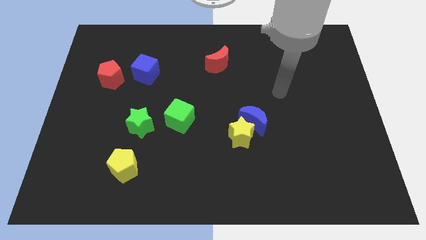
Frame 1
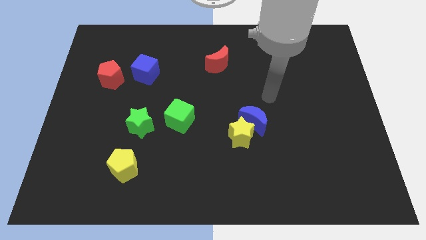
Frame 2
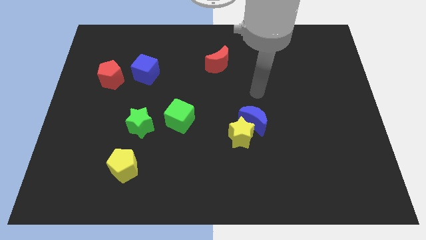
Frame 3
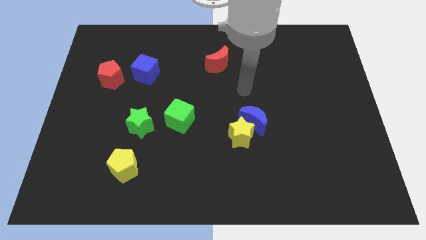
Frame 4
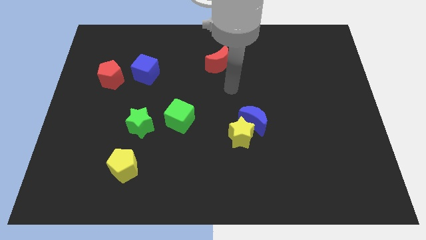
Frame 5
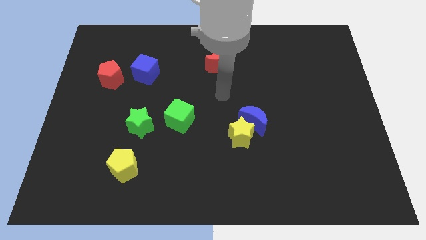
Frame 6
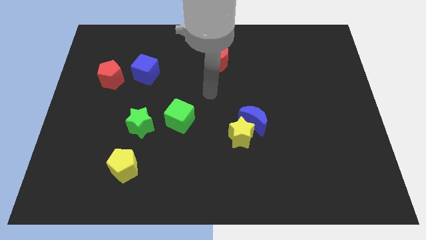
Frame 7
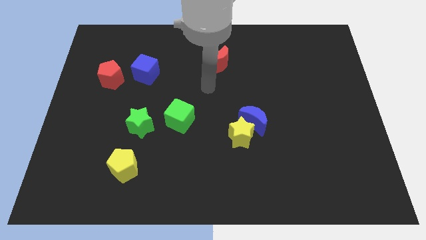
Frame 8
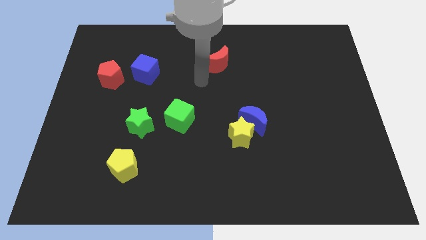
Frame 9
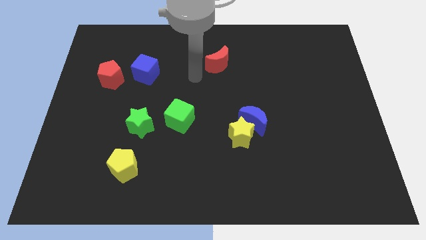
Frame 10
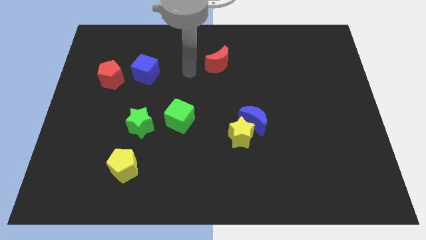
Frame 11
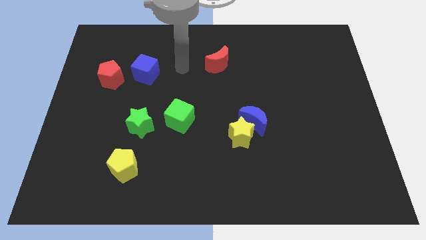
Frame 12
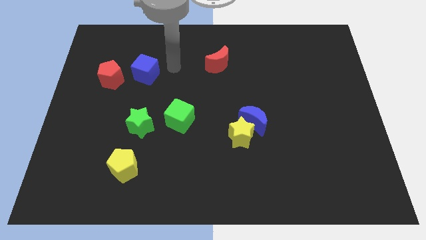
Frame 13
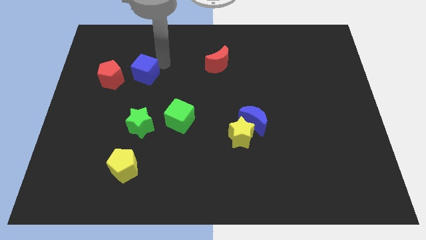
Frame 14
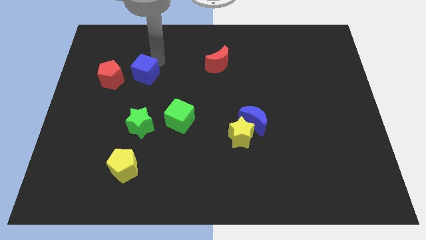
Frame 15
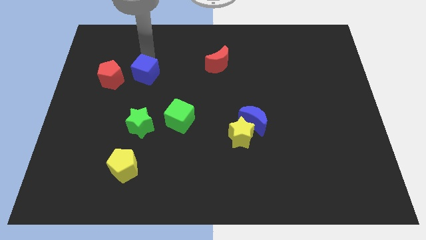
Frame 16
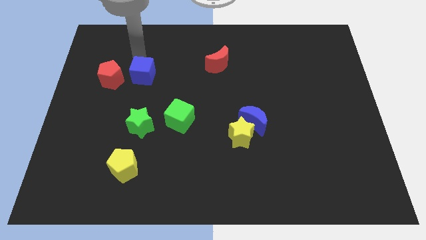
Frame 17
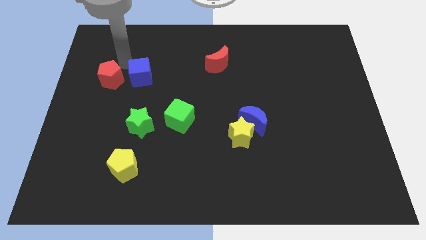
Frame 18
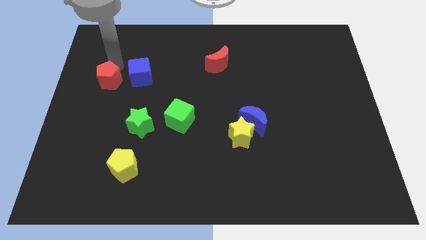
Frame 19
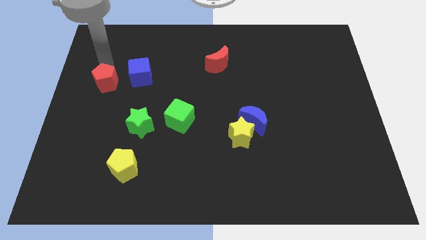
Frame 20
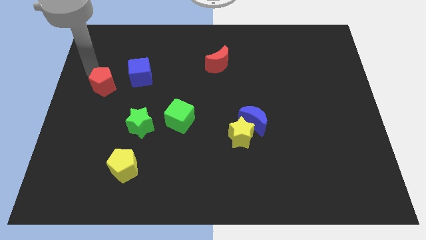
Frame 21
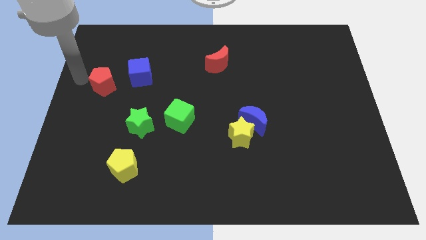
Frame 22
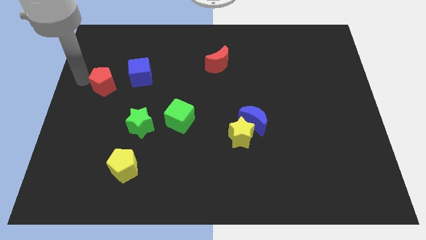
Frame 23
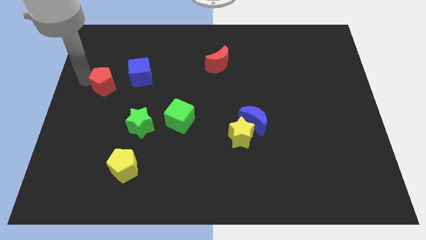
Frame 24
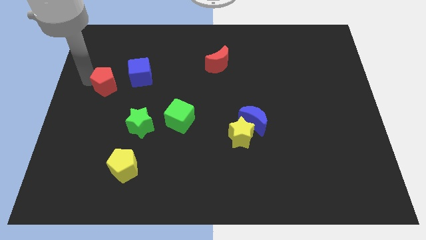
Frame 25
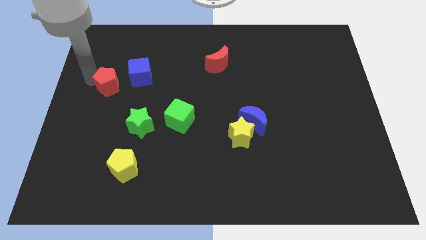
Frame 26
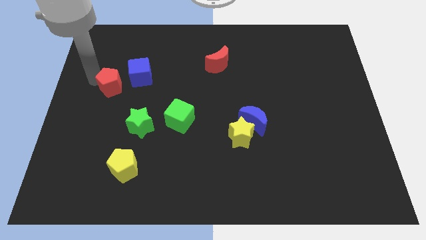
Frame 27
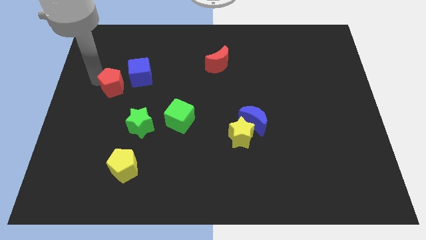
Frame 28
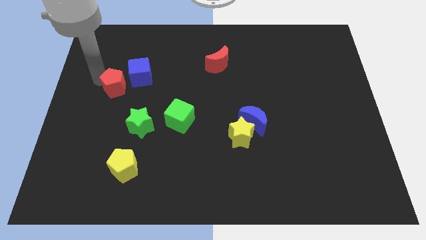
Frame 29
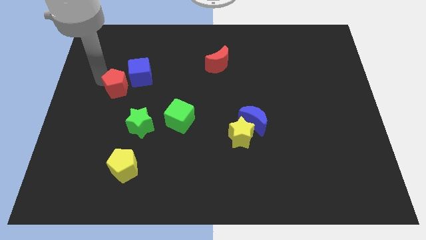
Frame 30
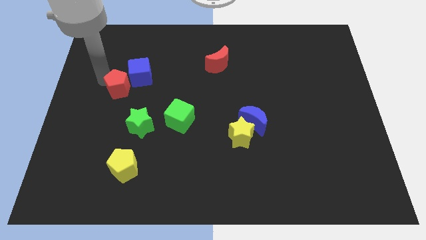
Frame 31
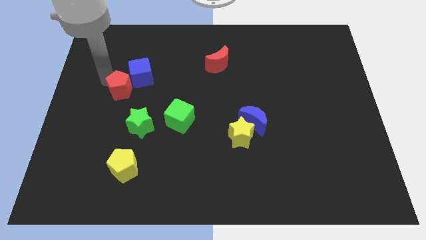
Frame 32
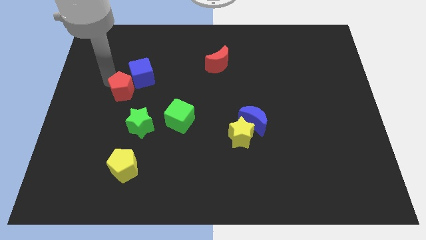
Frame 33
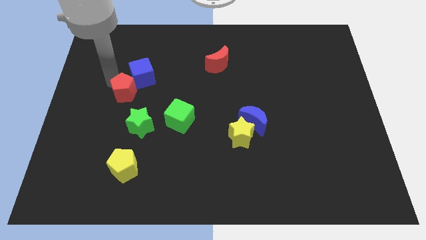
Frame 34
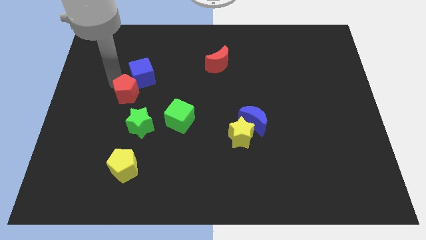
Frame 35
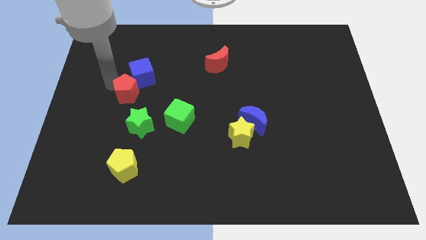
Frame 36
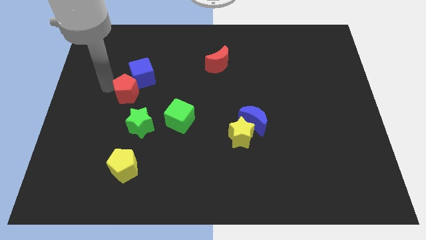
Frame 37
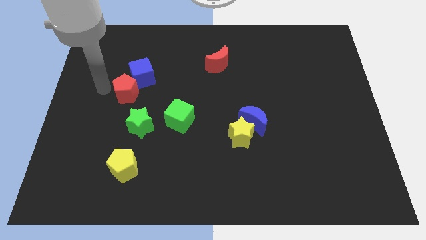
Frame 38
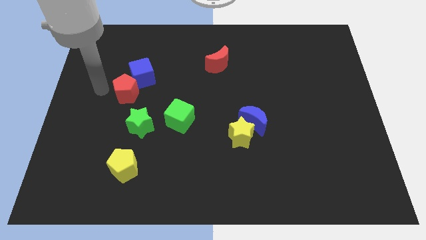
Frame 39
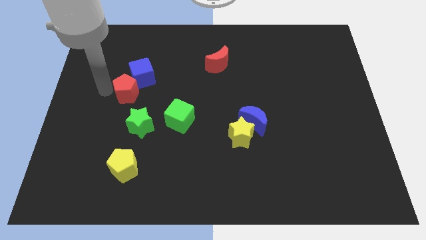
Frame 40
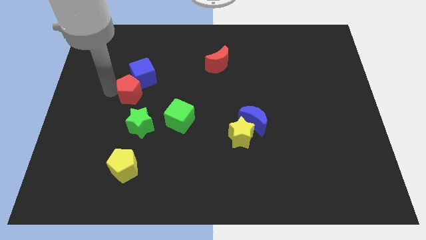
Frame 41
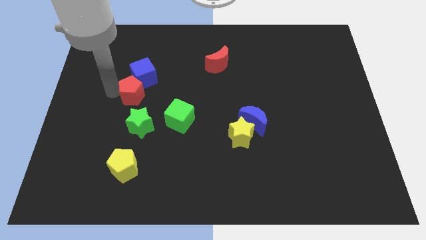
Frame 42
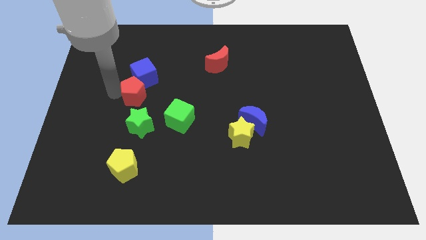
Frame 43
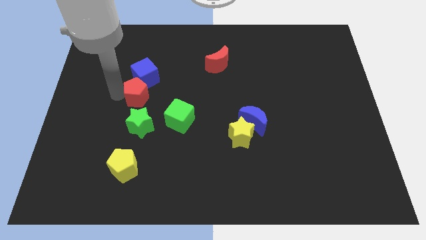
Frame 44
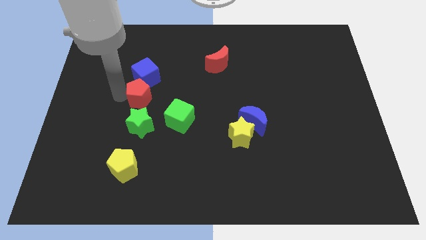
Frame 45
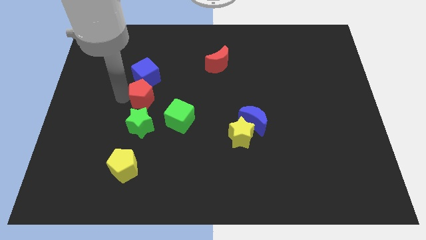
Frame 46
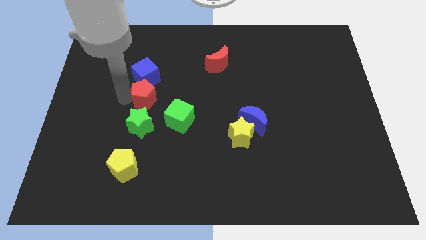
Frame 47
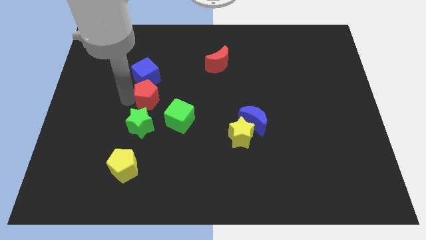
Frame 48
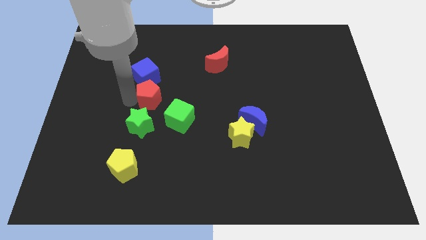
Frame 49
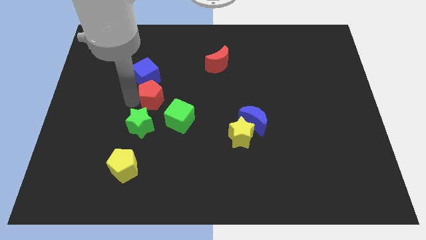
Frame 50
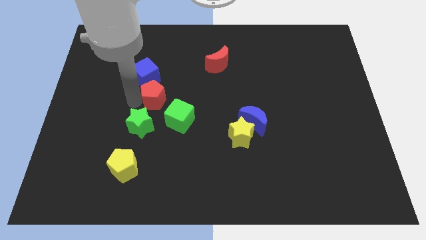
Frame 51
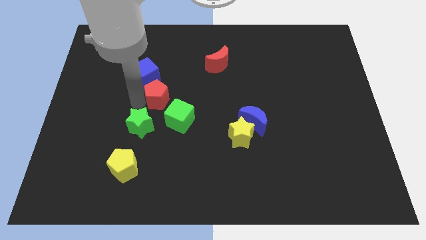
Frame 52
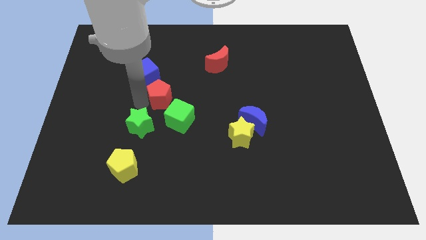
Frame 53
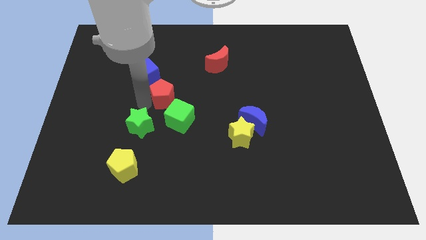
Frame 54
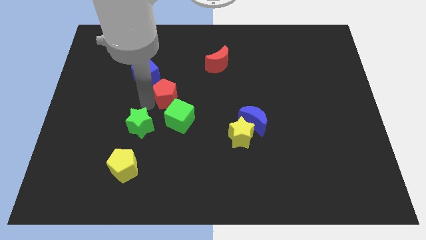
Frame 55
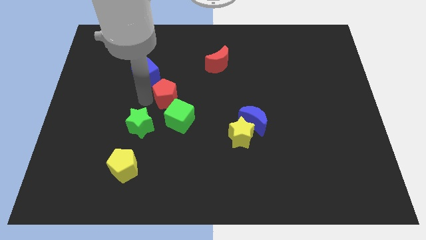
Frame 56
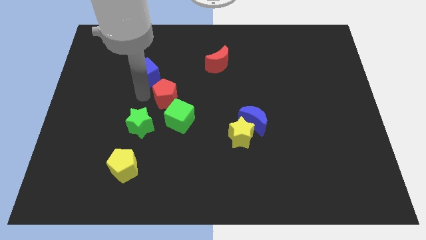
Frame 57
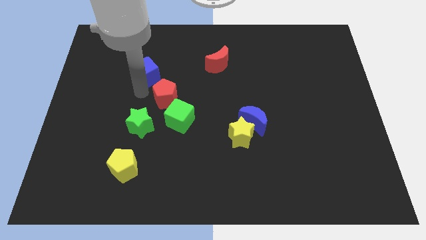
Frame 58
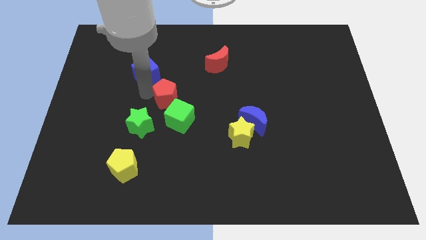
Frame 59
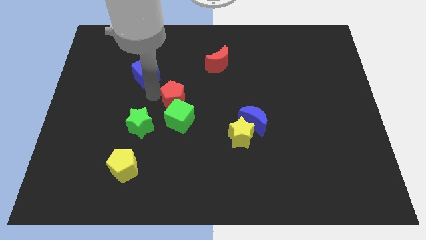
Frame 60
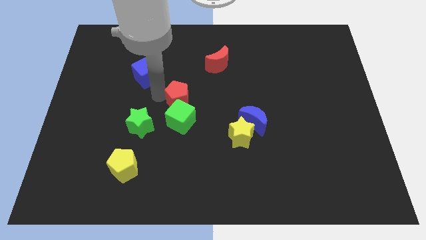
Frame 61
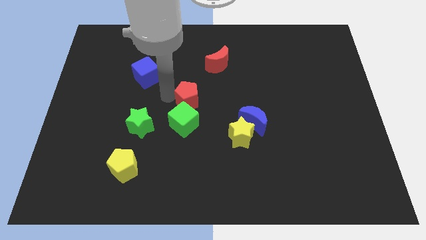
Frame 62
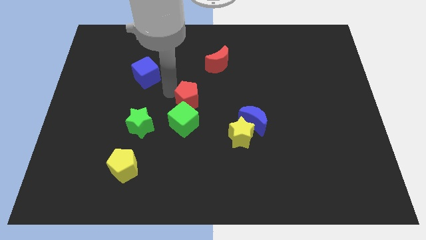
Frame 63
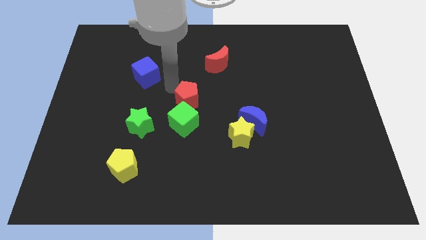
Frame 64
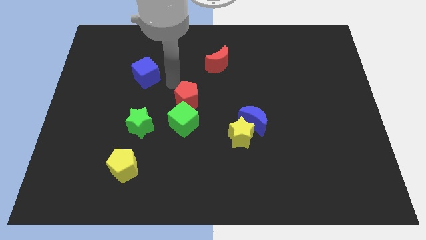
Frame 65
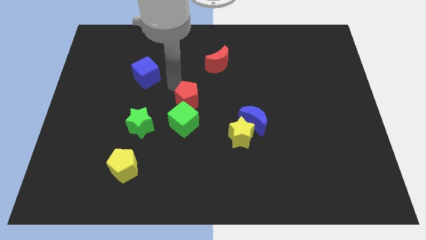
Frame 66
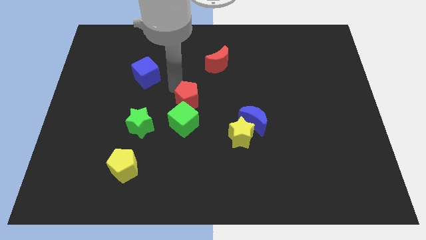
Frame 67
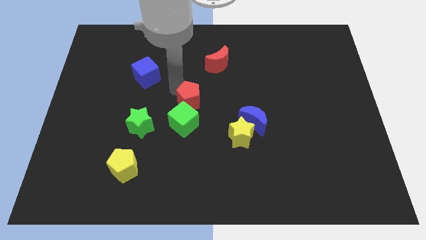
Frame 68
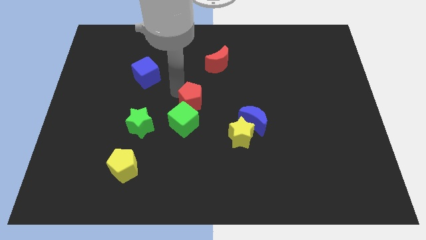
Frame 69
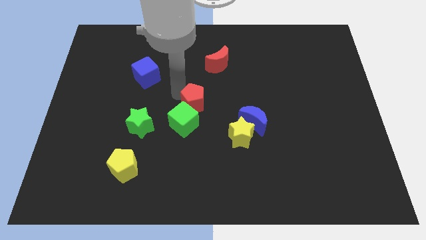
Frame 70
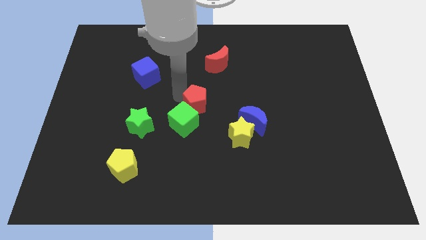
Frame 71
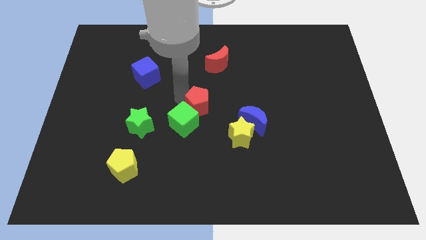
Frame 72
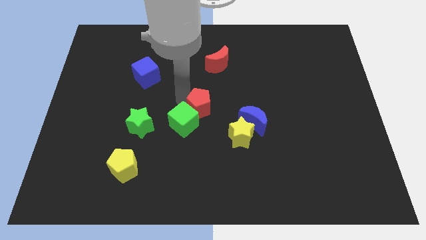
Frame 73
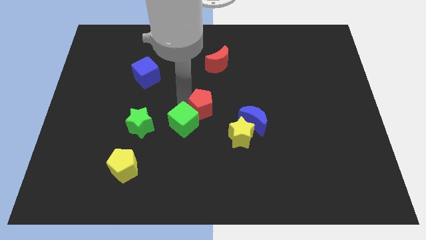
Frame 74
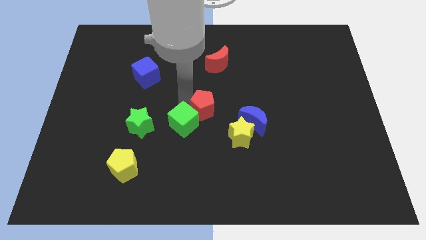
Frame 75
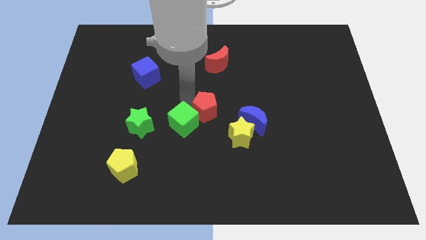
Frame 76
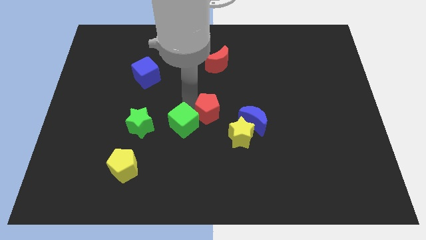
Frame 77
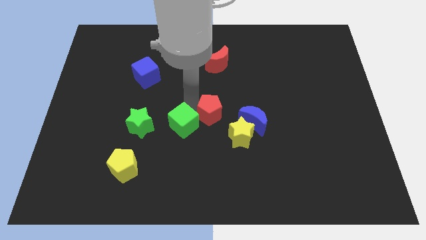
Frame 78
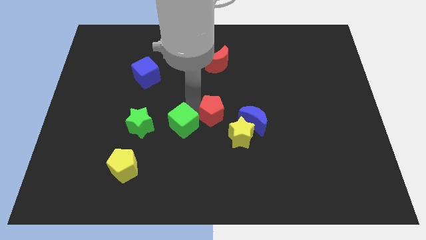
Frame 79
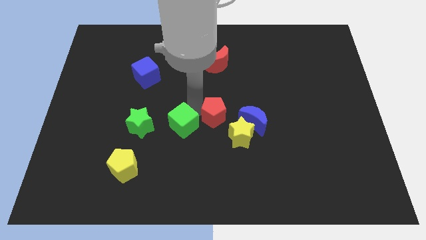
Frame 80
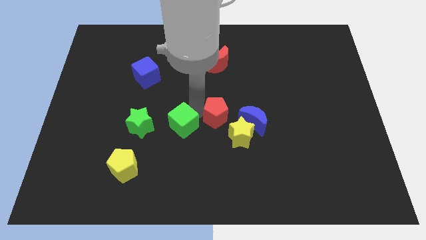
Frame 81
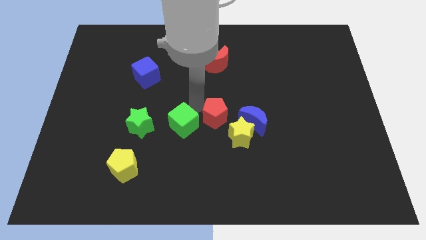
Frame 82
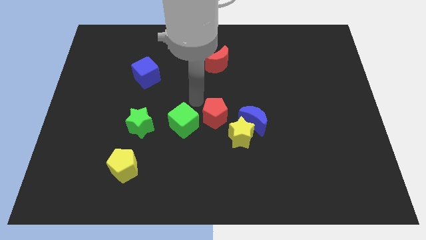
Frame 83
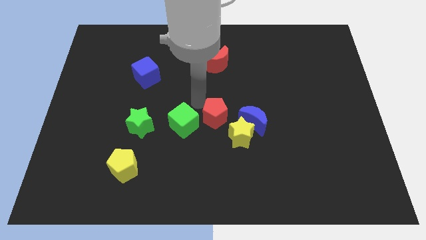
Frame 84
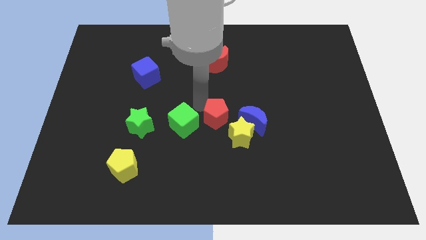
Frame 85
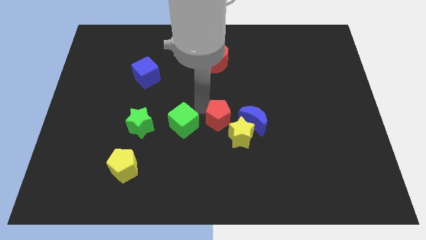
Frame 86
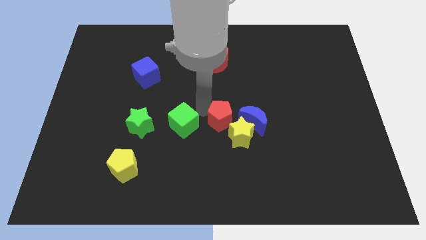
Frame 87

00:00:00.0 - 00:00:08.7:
slide the red pentagon towards the yellow star
